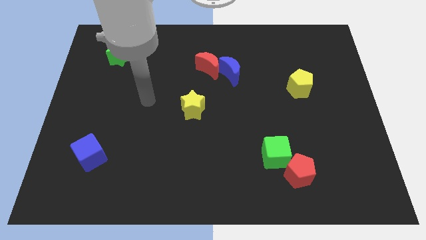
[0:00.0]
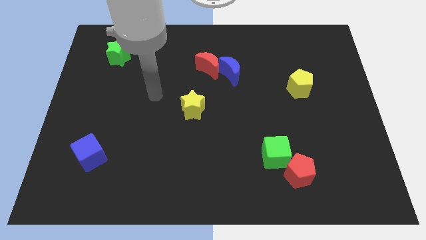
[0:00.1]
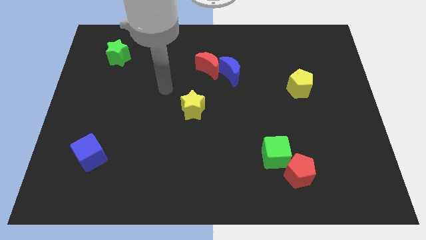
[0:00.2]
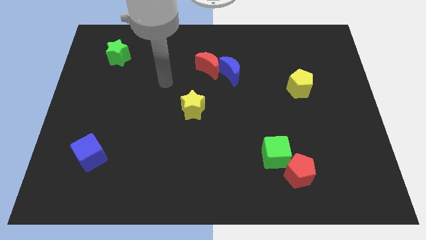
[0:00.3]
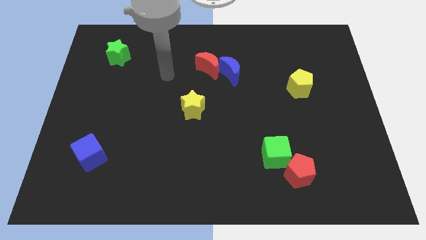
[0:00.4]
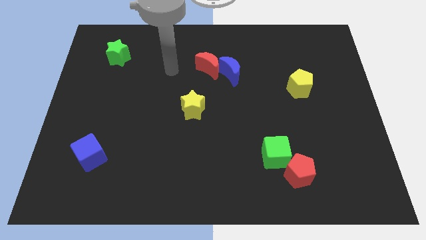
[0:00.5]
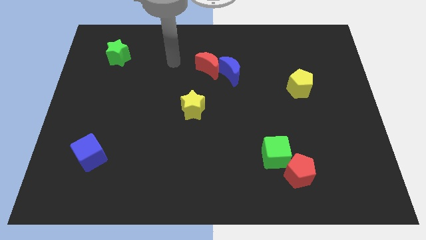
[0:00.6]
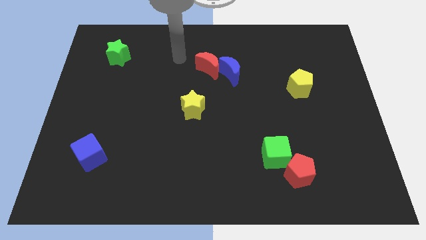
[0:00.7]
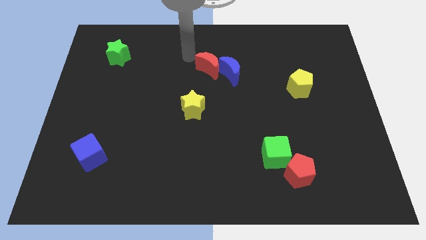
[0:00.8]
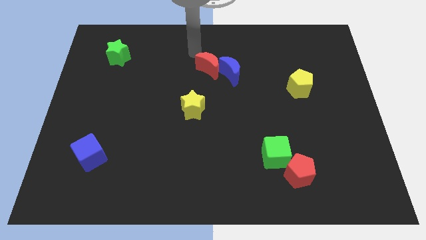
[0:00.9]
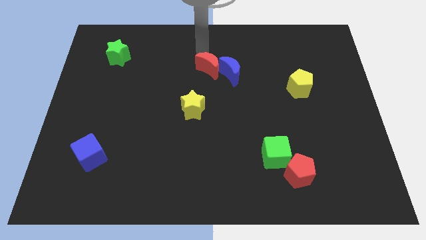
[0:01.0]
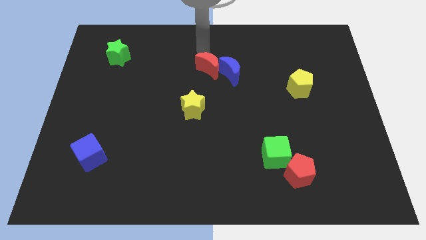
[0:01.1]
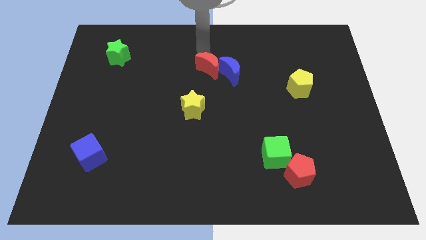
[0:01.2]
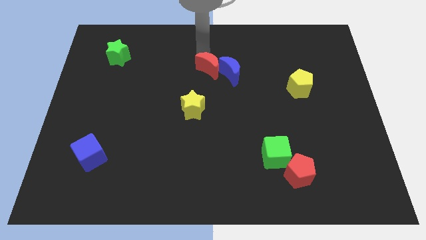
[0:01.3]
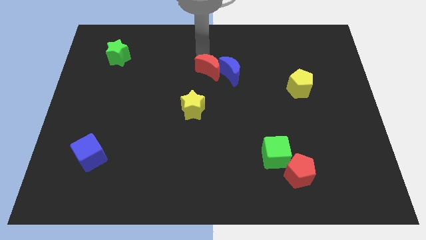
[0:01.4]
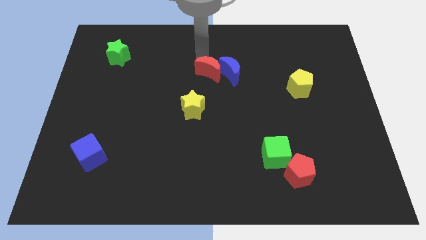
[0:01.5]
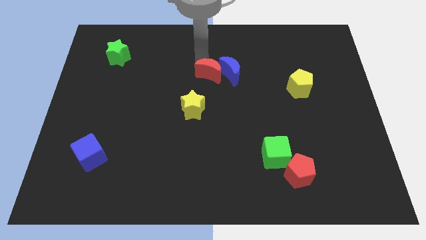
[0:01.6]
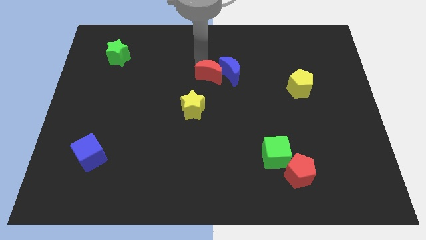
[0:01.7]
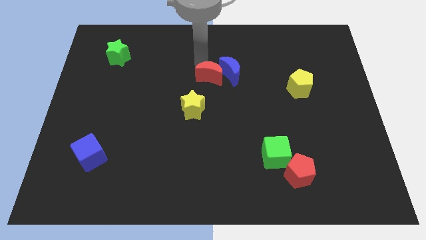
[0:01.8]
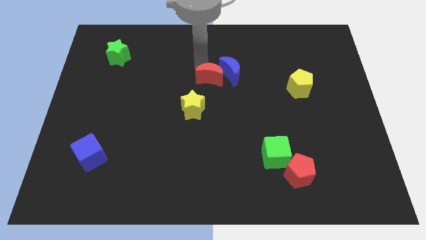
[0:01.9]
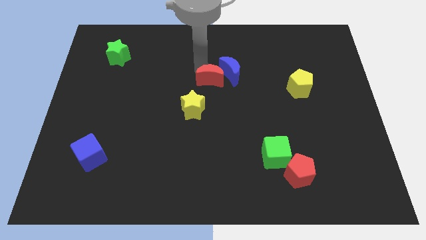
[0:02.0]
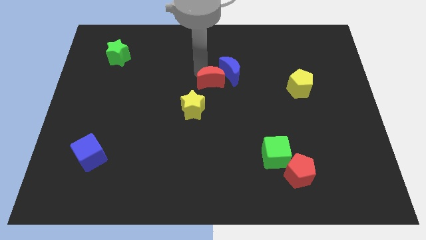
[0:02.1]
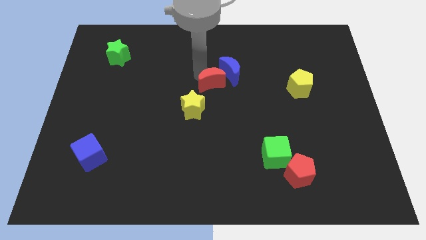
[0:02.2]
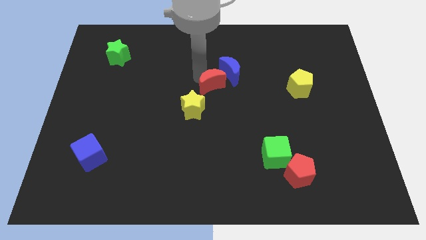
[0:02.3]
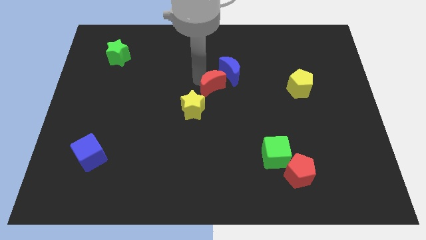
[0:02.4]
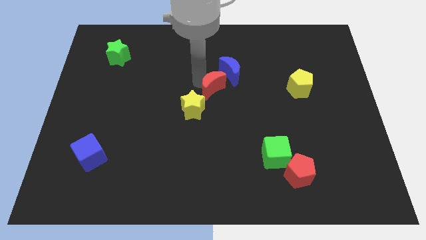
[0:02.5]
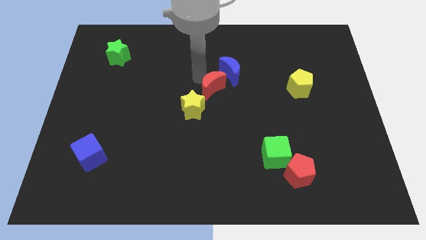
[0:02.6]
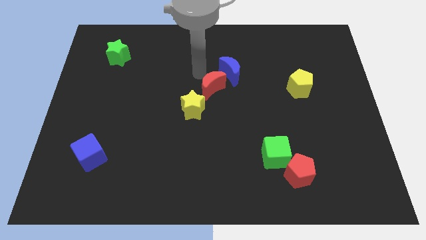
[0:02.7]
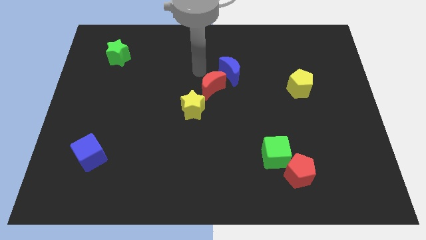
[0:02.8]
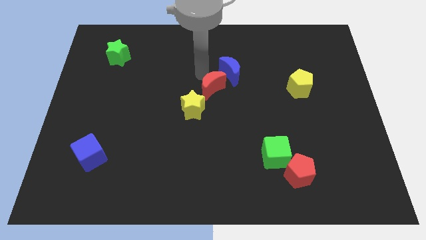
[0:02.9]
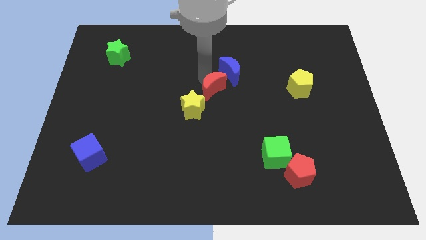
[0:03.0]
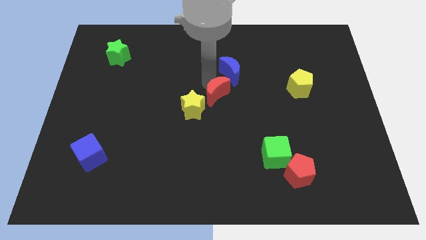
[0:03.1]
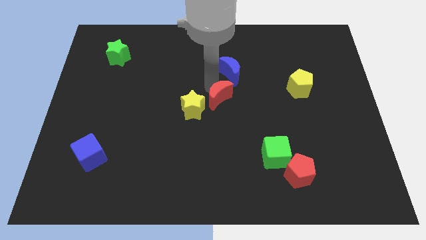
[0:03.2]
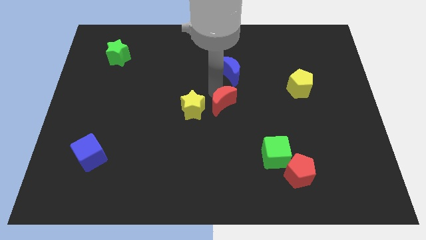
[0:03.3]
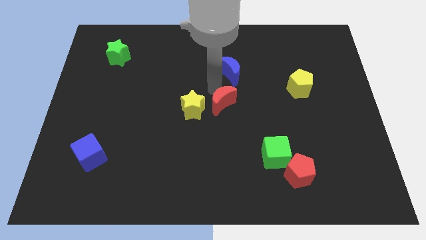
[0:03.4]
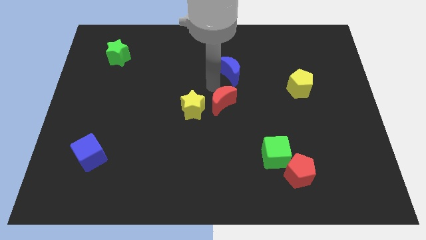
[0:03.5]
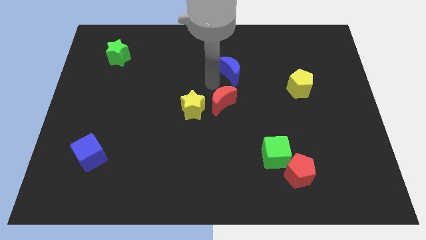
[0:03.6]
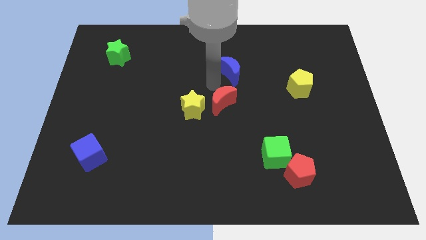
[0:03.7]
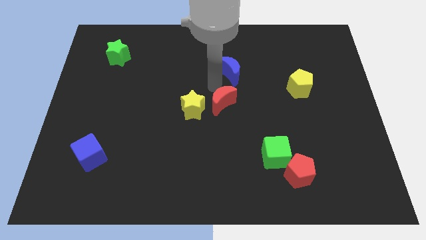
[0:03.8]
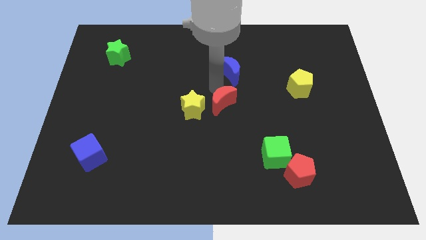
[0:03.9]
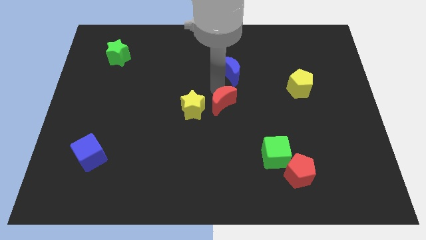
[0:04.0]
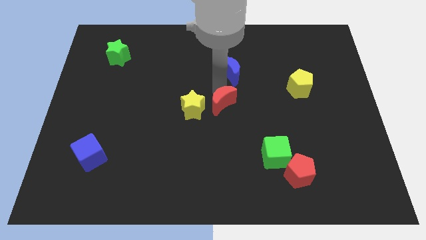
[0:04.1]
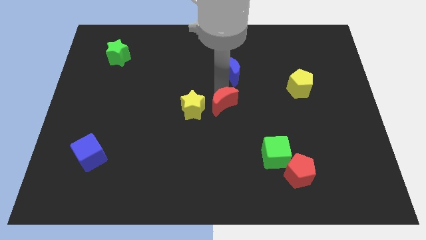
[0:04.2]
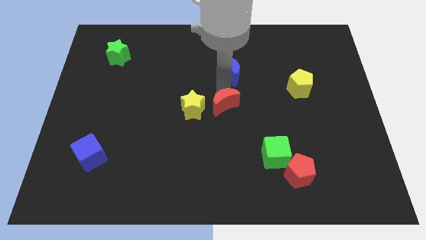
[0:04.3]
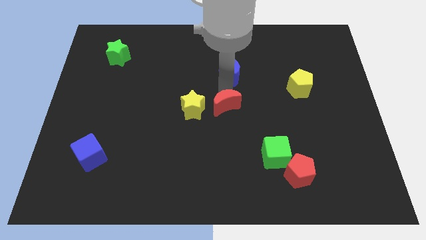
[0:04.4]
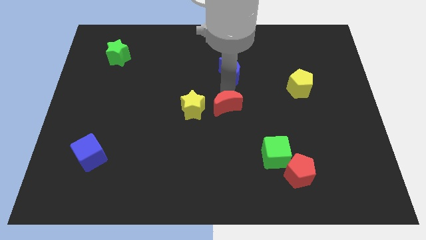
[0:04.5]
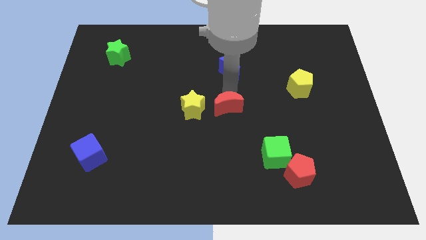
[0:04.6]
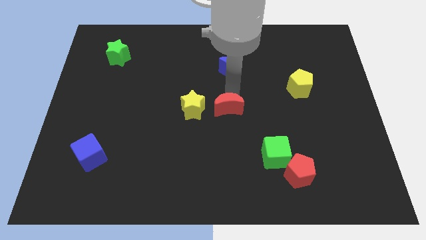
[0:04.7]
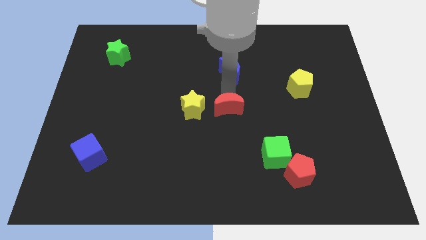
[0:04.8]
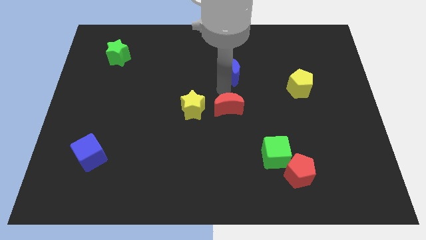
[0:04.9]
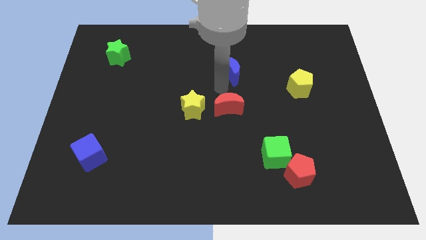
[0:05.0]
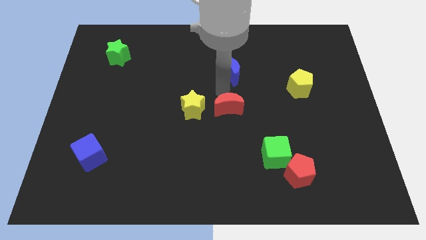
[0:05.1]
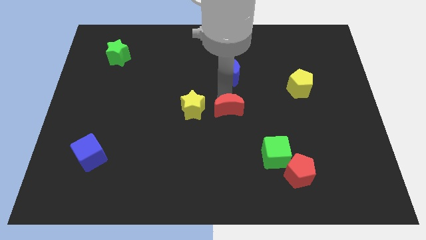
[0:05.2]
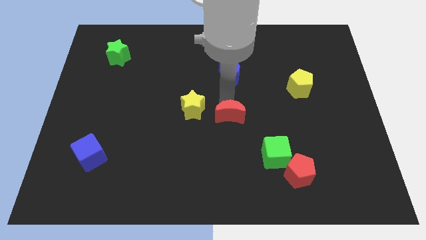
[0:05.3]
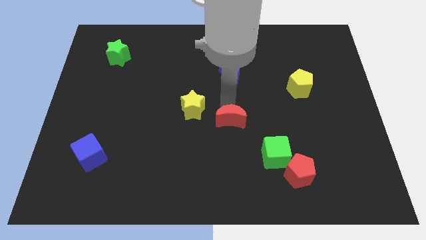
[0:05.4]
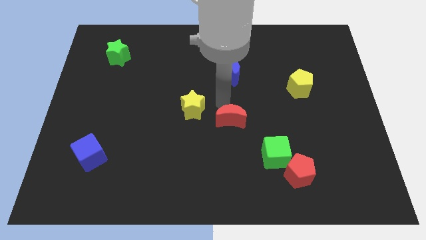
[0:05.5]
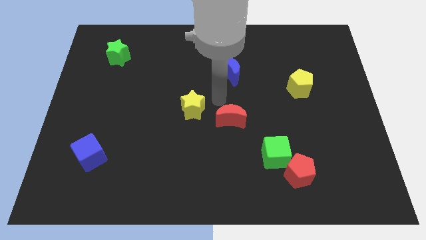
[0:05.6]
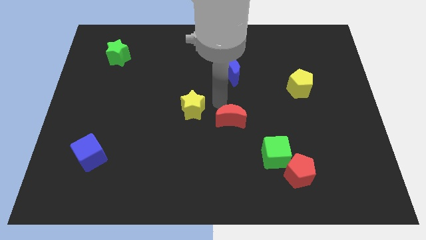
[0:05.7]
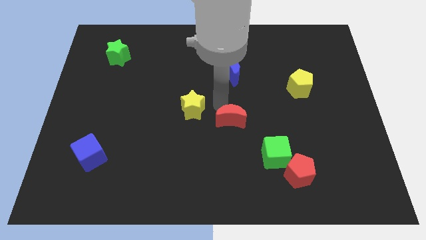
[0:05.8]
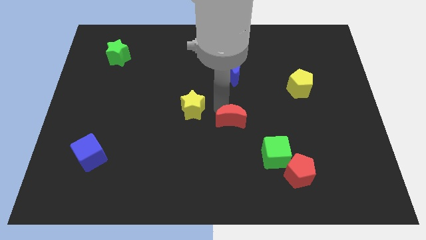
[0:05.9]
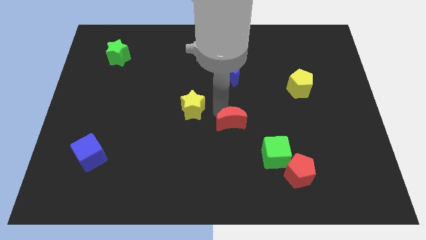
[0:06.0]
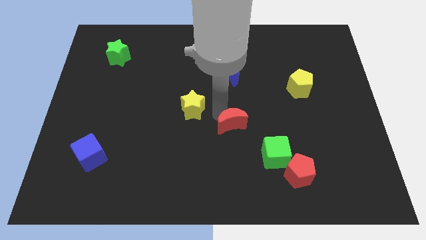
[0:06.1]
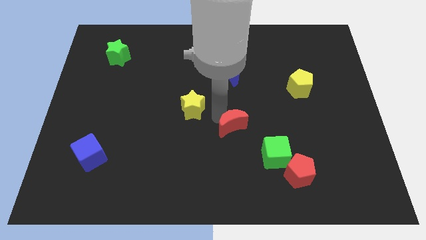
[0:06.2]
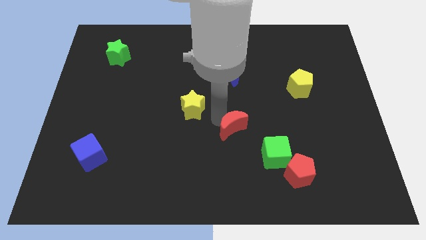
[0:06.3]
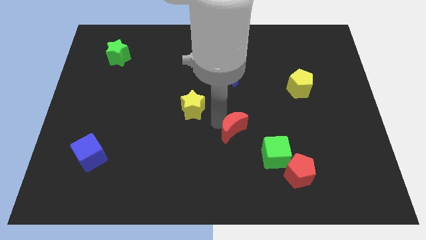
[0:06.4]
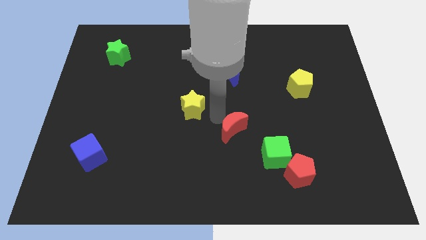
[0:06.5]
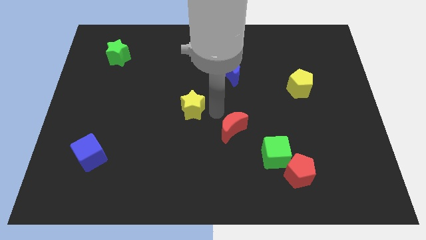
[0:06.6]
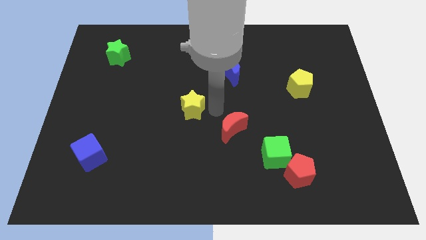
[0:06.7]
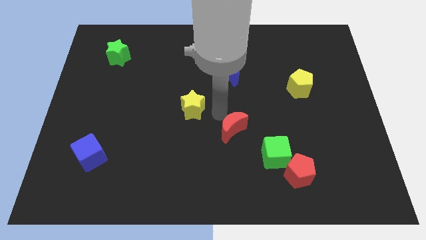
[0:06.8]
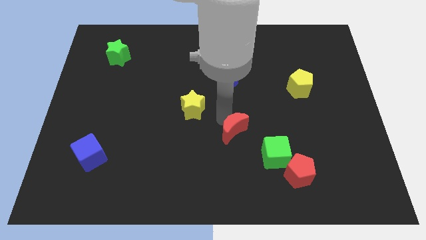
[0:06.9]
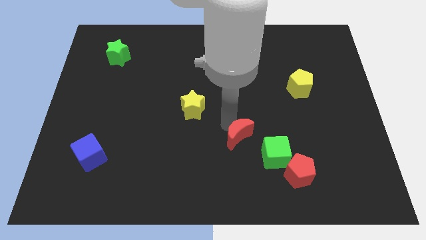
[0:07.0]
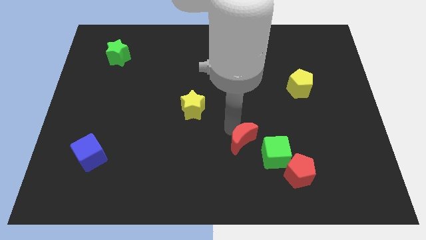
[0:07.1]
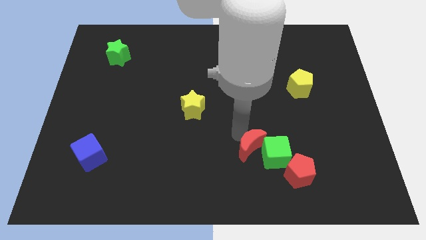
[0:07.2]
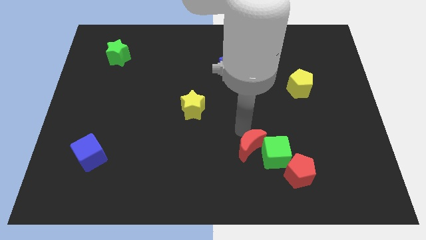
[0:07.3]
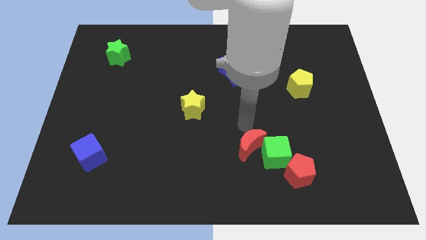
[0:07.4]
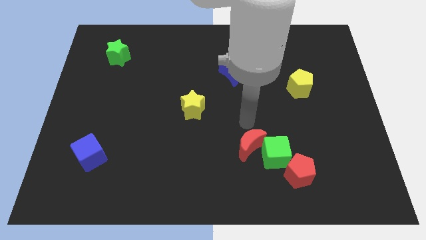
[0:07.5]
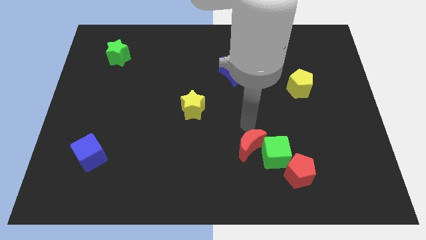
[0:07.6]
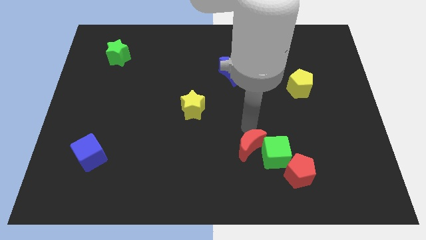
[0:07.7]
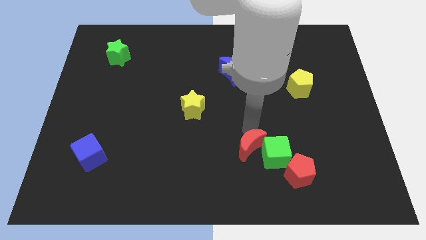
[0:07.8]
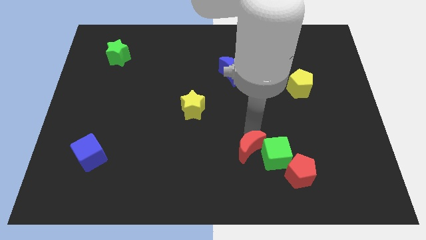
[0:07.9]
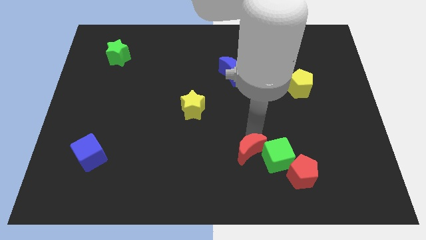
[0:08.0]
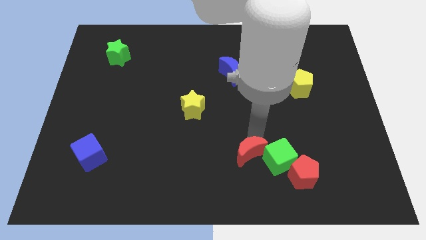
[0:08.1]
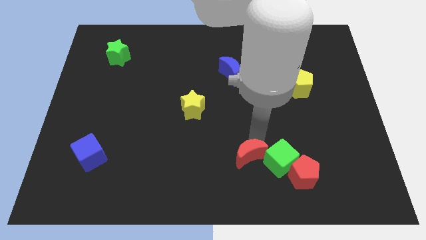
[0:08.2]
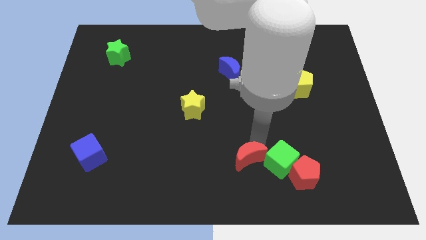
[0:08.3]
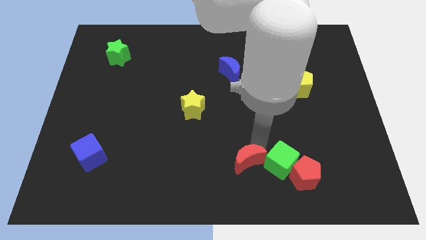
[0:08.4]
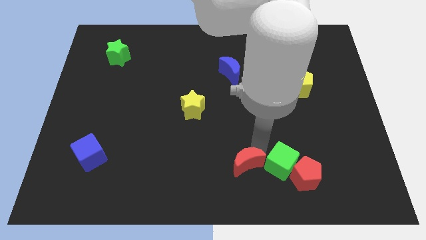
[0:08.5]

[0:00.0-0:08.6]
put the red moon diagonally down and to the left of the green cube
